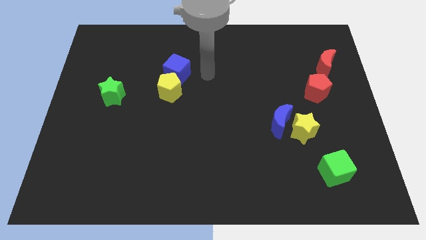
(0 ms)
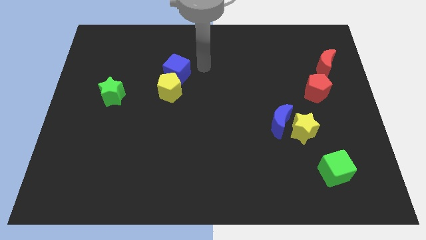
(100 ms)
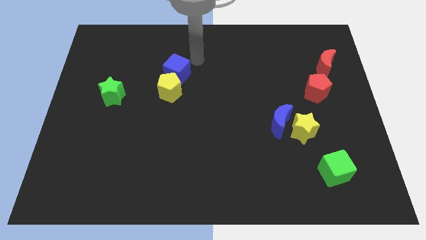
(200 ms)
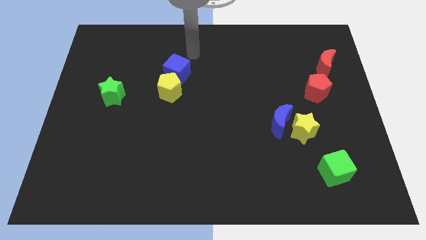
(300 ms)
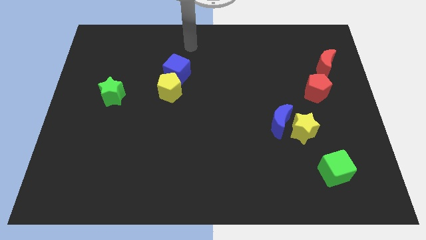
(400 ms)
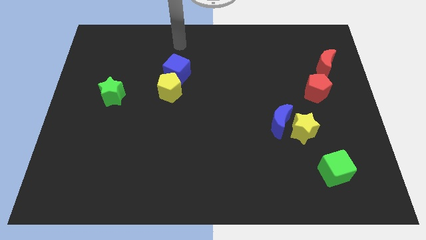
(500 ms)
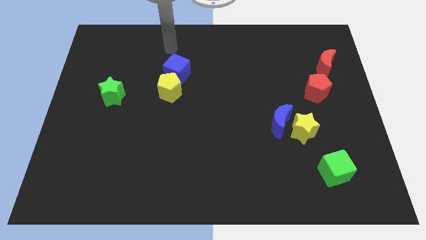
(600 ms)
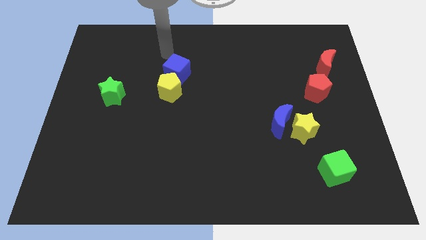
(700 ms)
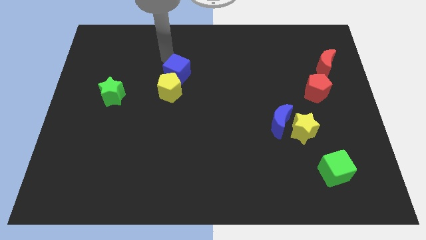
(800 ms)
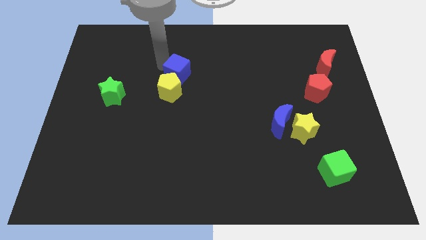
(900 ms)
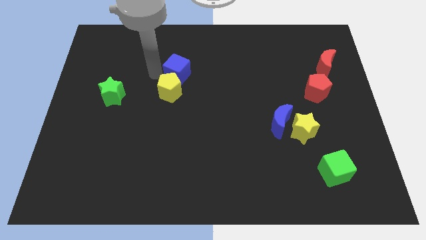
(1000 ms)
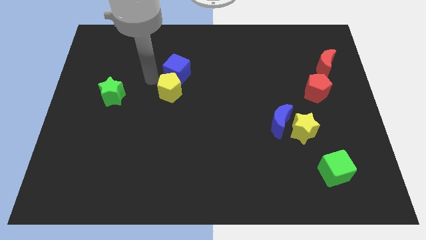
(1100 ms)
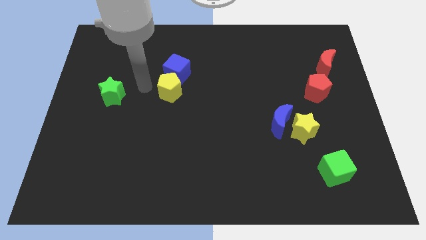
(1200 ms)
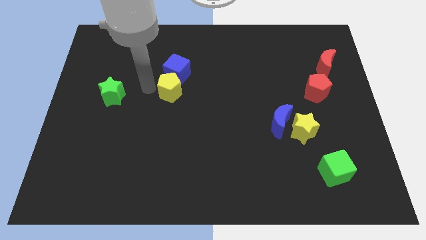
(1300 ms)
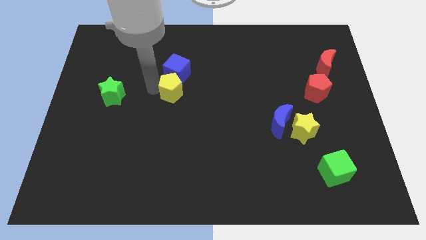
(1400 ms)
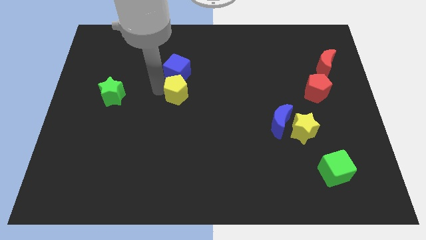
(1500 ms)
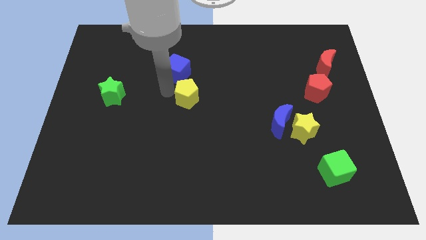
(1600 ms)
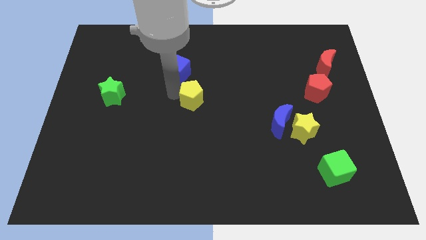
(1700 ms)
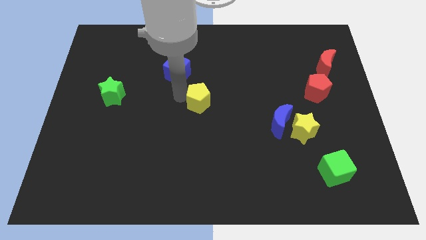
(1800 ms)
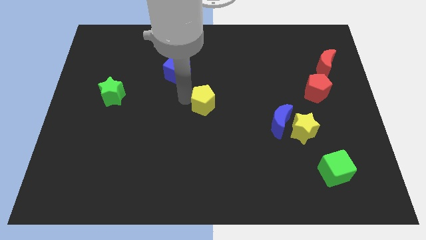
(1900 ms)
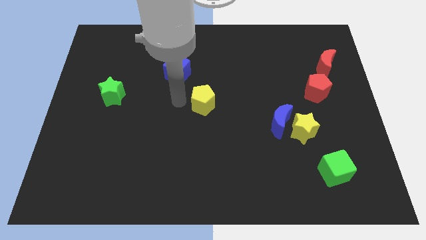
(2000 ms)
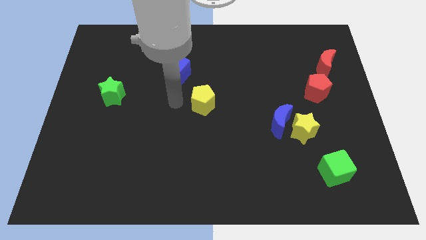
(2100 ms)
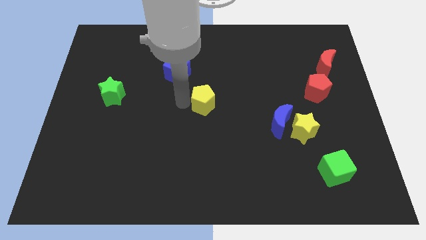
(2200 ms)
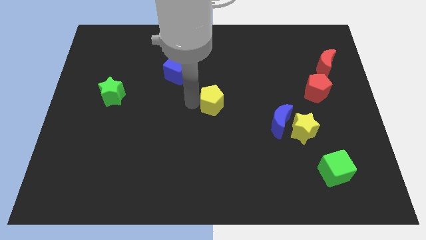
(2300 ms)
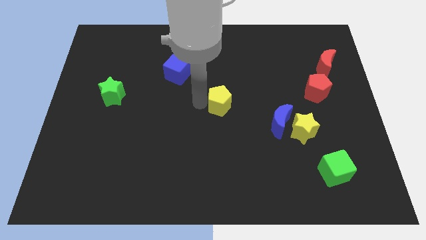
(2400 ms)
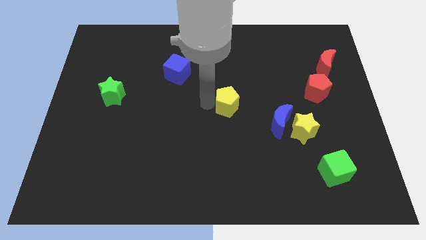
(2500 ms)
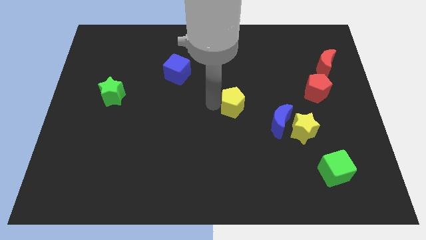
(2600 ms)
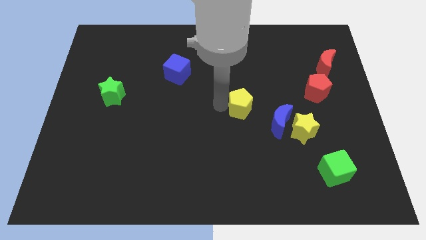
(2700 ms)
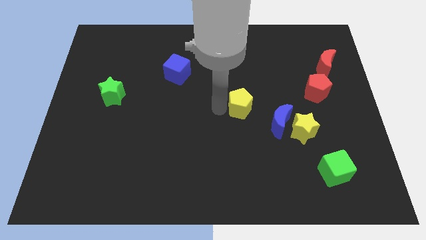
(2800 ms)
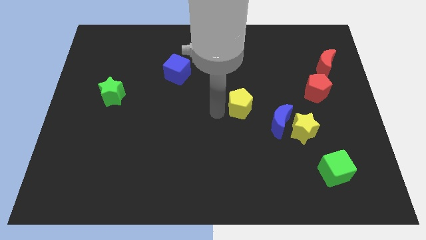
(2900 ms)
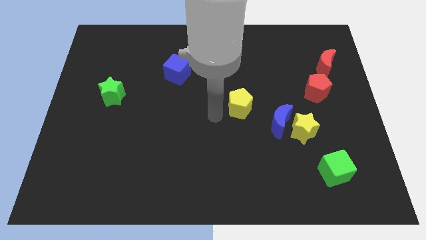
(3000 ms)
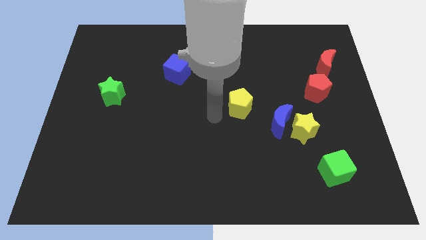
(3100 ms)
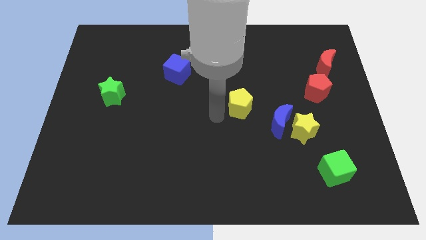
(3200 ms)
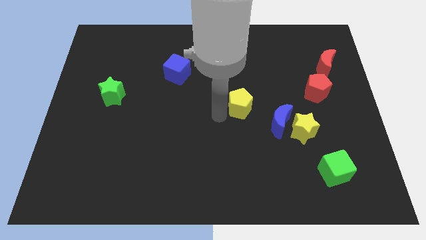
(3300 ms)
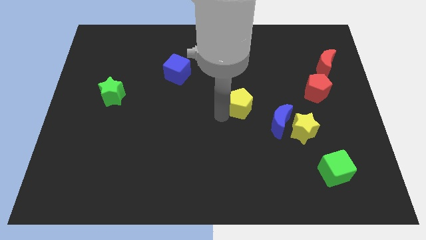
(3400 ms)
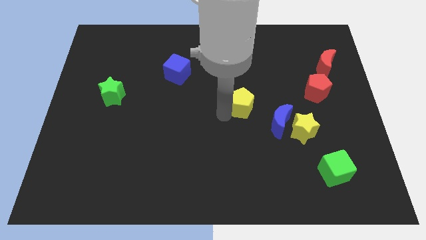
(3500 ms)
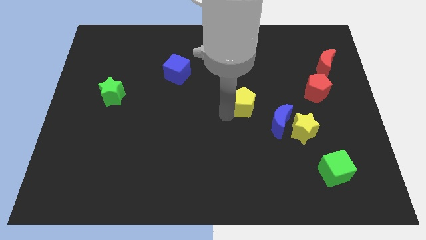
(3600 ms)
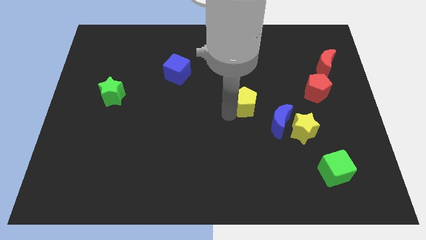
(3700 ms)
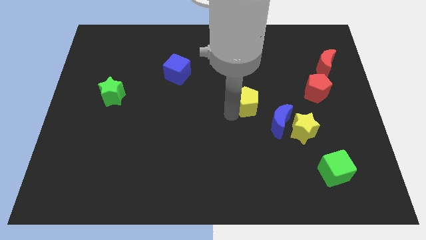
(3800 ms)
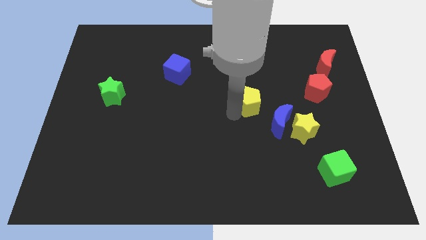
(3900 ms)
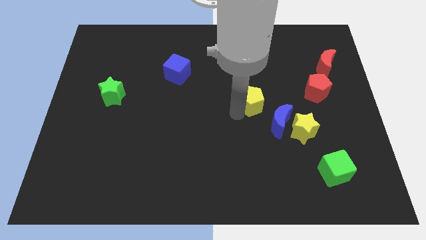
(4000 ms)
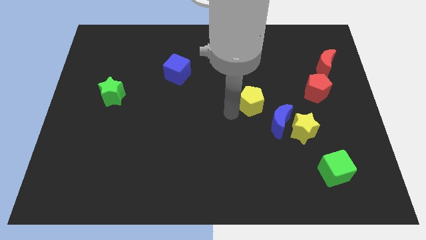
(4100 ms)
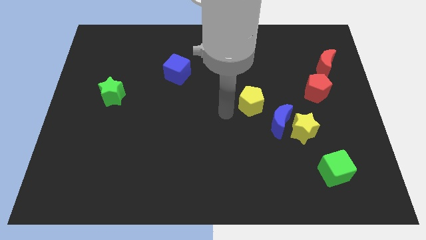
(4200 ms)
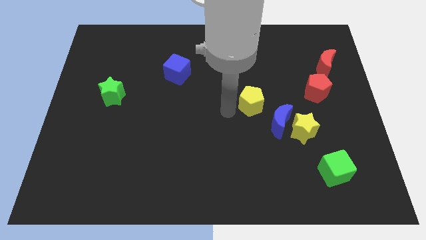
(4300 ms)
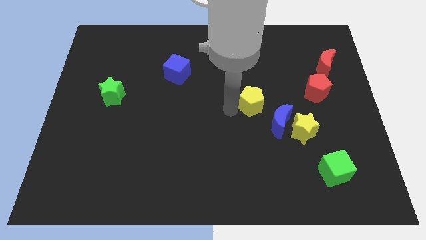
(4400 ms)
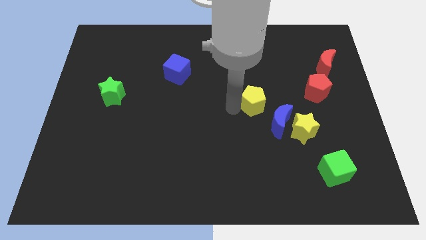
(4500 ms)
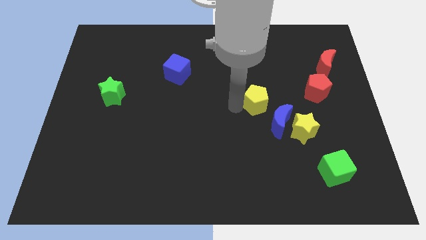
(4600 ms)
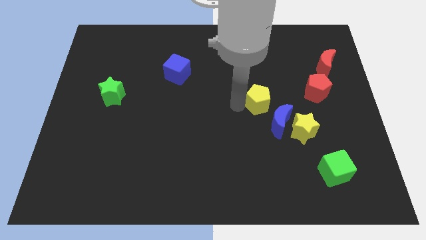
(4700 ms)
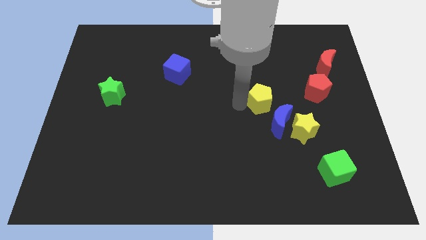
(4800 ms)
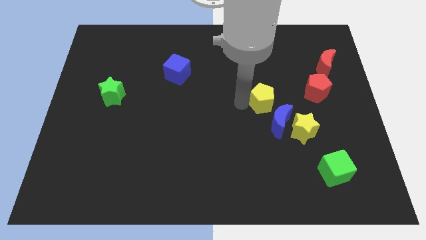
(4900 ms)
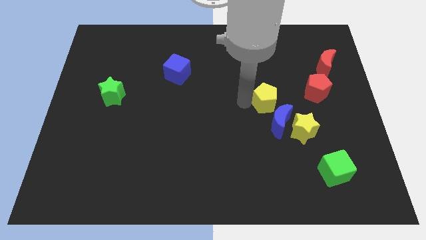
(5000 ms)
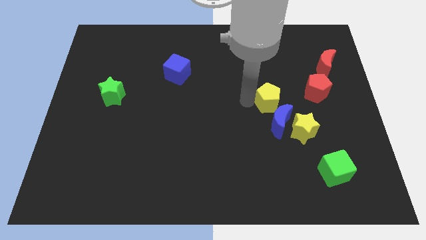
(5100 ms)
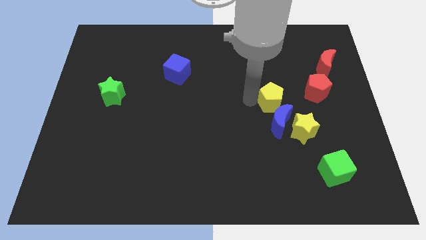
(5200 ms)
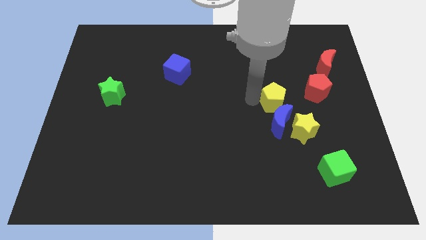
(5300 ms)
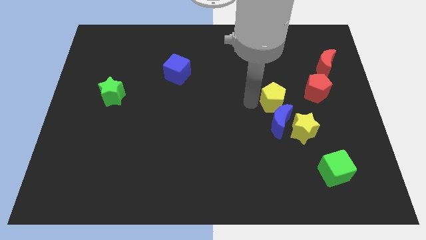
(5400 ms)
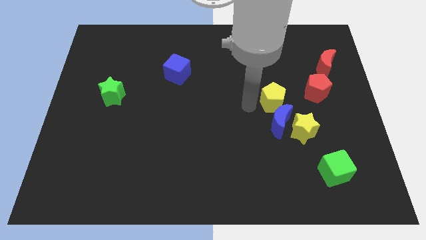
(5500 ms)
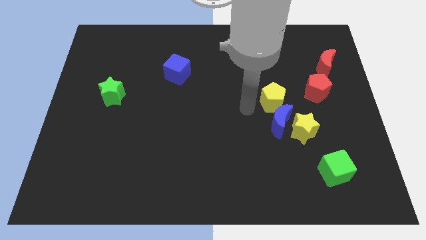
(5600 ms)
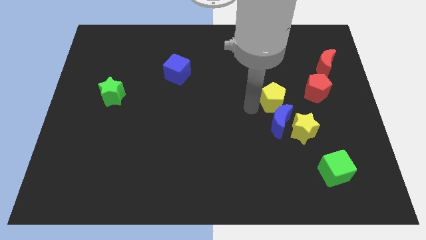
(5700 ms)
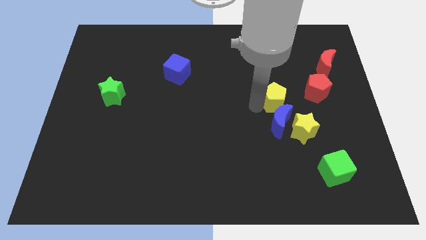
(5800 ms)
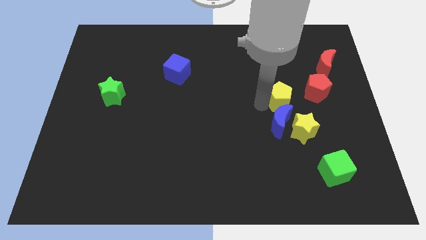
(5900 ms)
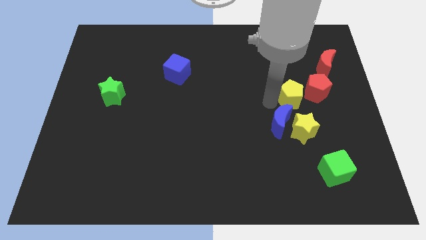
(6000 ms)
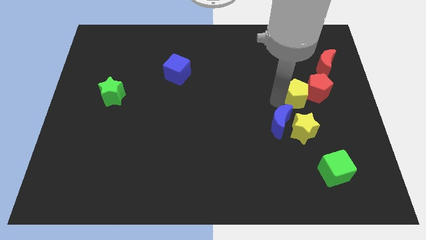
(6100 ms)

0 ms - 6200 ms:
move the yellow pentagon towards the red pentagon

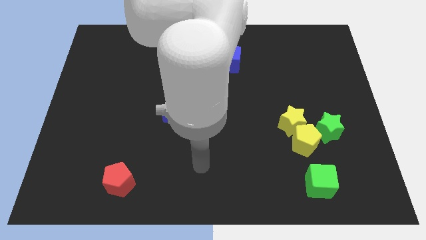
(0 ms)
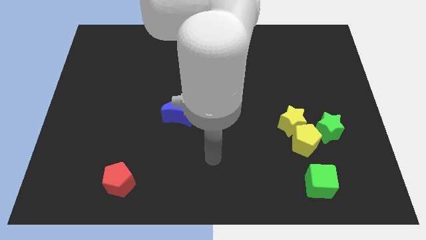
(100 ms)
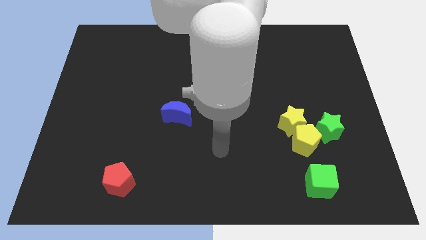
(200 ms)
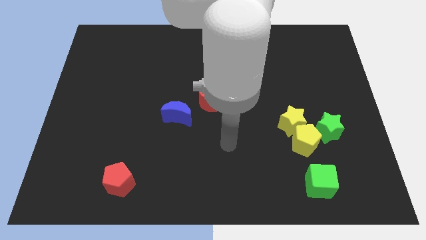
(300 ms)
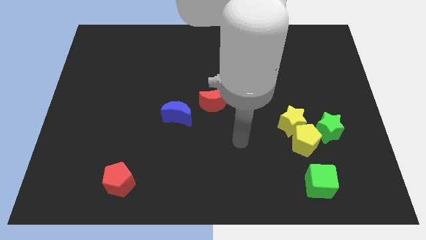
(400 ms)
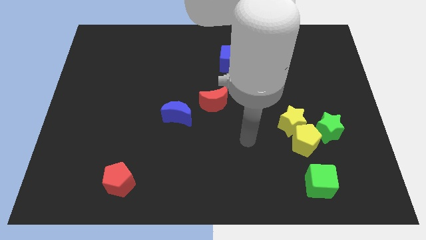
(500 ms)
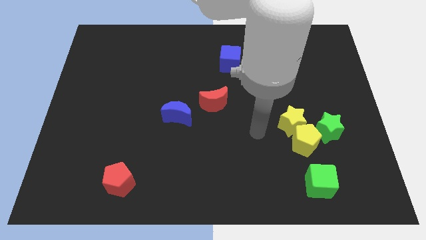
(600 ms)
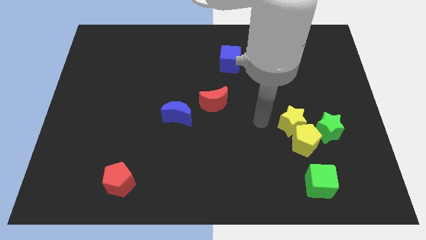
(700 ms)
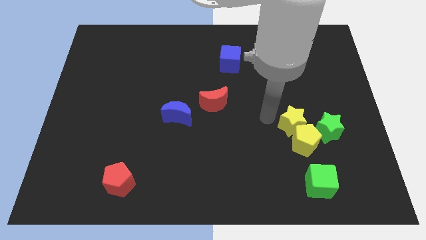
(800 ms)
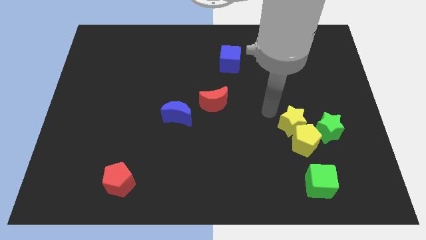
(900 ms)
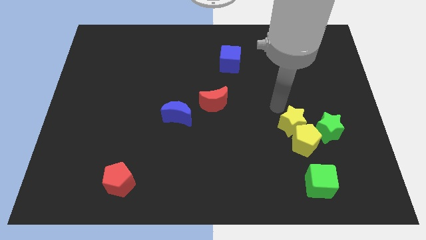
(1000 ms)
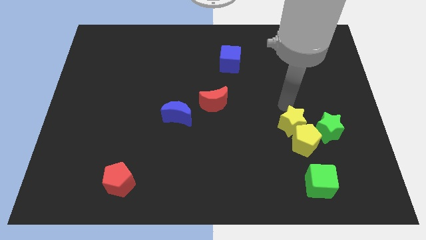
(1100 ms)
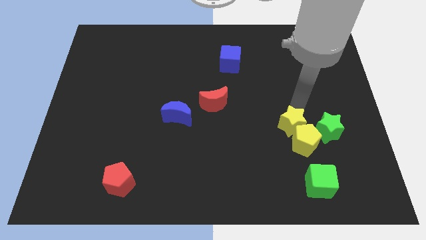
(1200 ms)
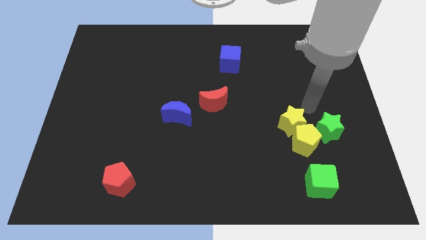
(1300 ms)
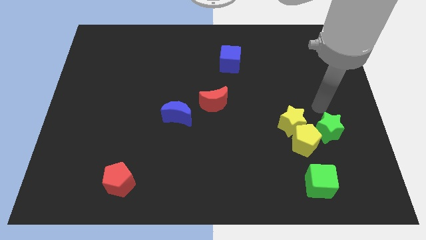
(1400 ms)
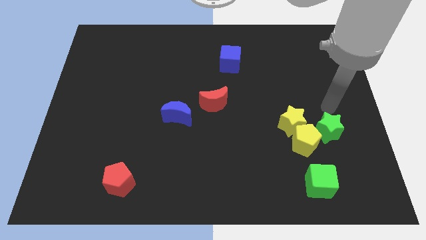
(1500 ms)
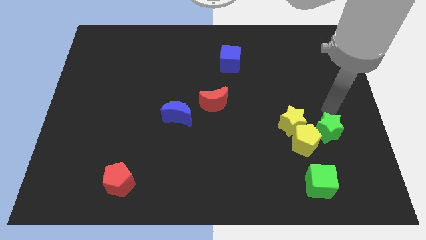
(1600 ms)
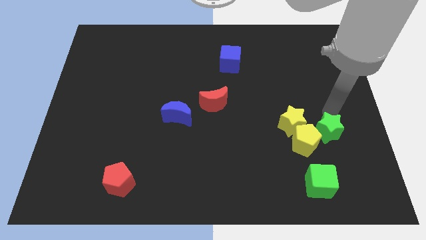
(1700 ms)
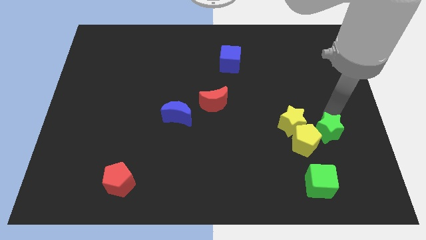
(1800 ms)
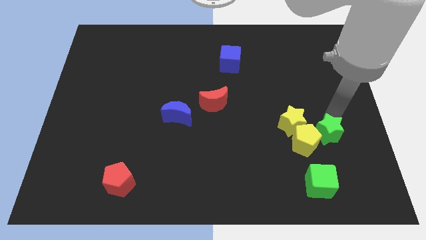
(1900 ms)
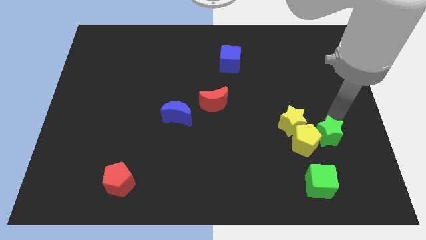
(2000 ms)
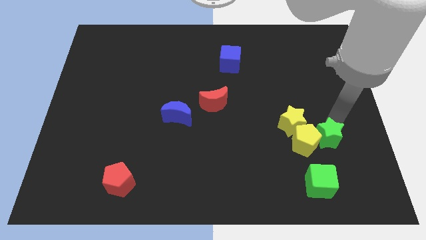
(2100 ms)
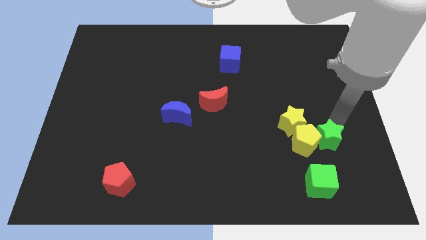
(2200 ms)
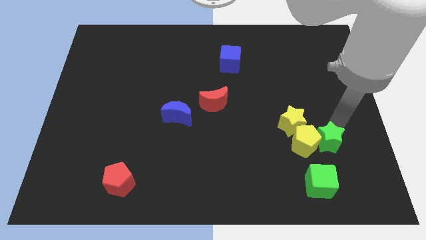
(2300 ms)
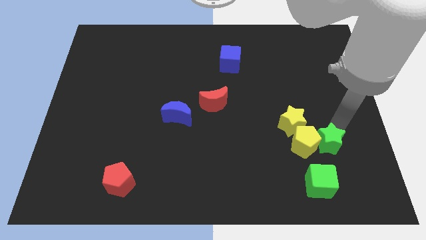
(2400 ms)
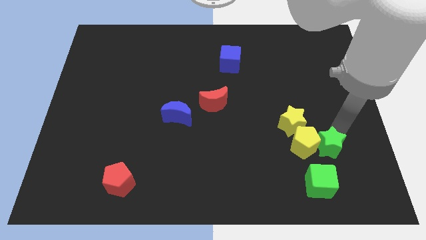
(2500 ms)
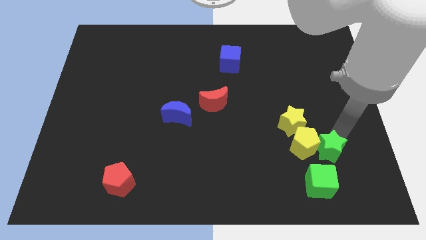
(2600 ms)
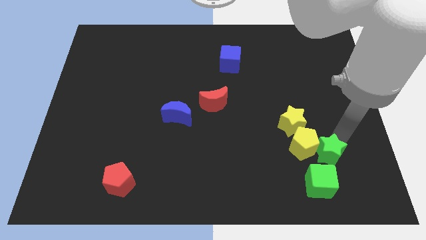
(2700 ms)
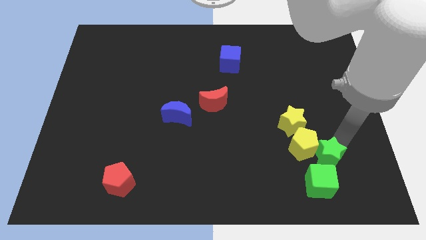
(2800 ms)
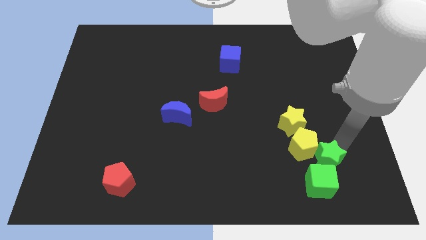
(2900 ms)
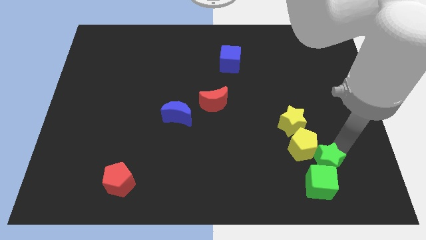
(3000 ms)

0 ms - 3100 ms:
move the green star towards the green cube
